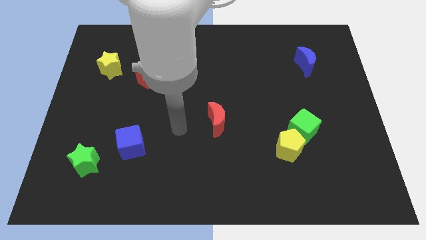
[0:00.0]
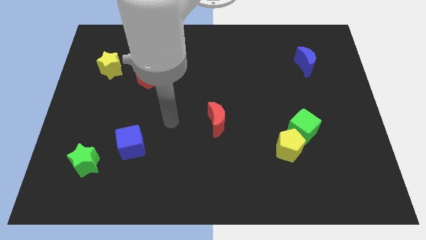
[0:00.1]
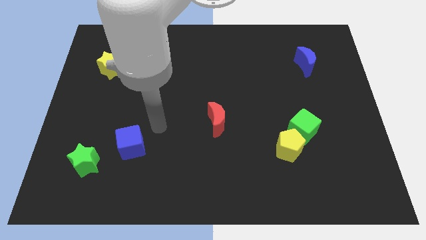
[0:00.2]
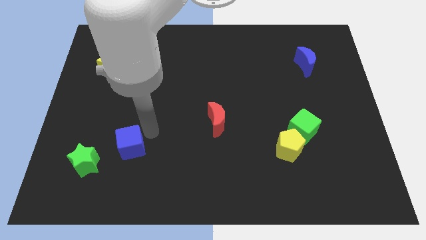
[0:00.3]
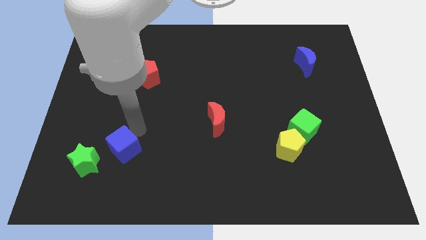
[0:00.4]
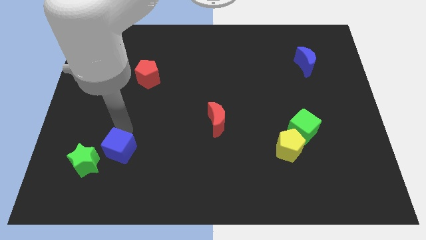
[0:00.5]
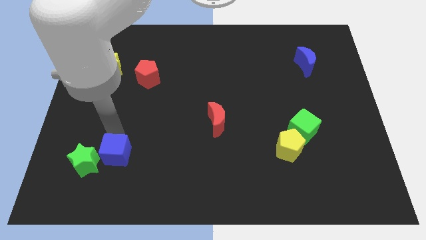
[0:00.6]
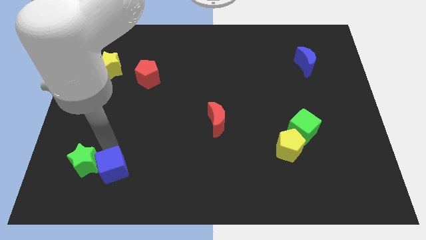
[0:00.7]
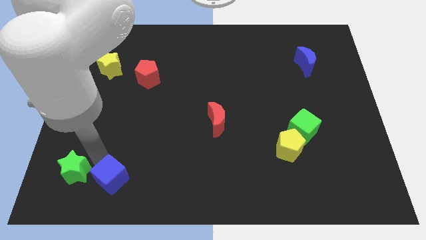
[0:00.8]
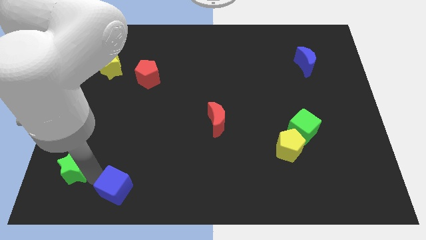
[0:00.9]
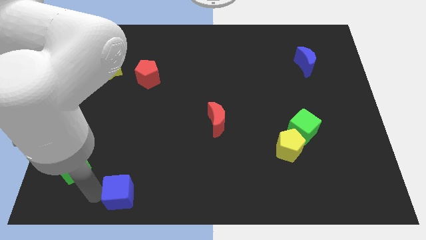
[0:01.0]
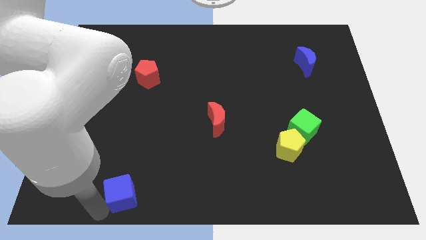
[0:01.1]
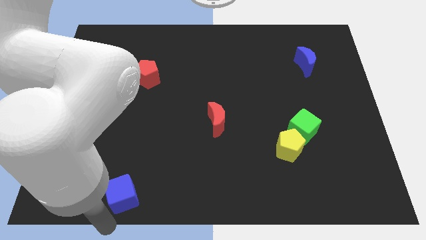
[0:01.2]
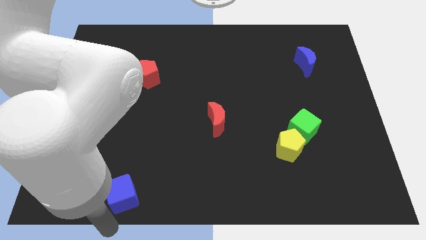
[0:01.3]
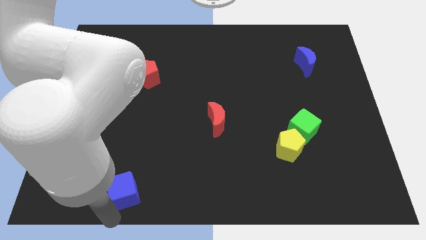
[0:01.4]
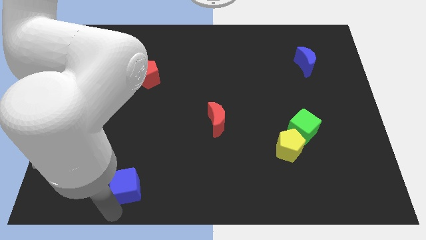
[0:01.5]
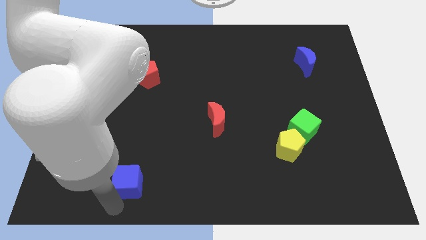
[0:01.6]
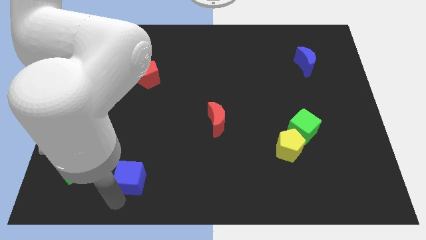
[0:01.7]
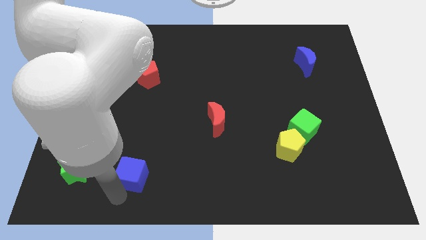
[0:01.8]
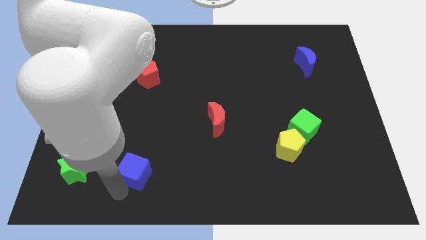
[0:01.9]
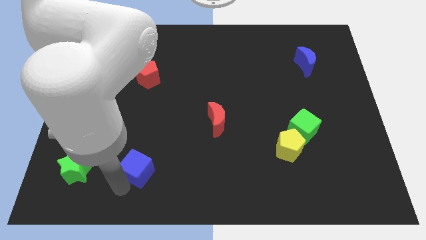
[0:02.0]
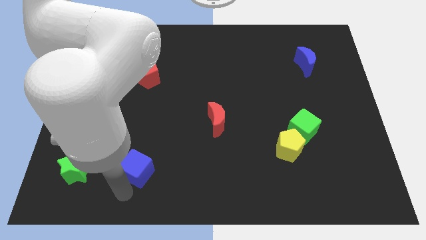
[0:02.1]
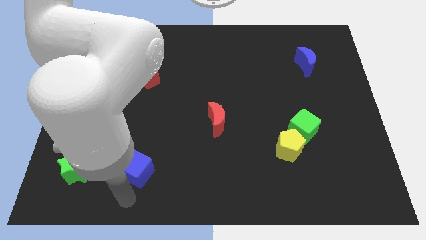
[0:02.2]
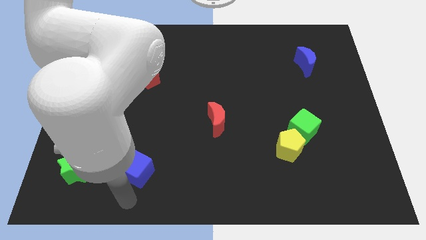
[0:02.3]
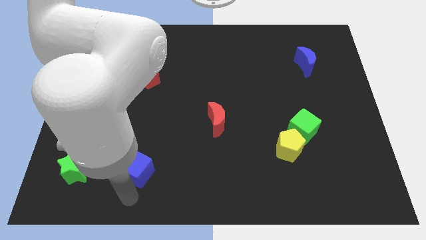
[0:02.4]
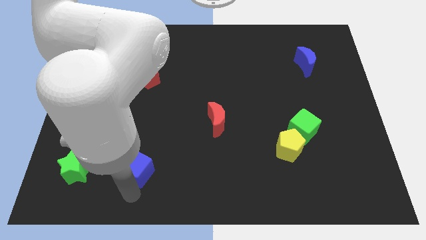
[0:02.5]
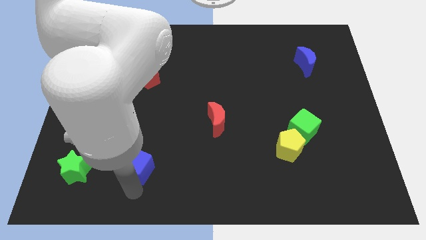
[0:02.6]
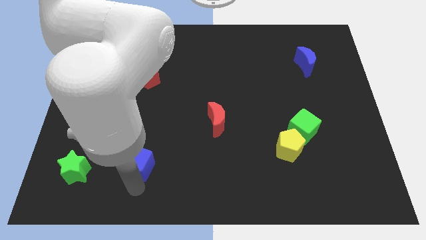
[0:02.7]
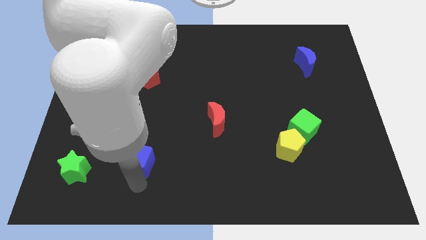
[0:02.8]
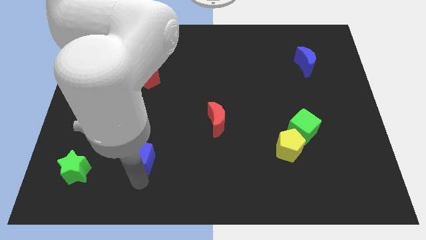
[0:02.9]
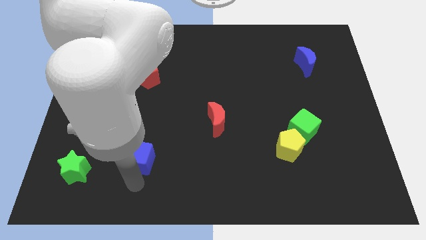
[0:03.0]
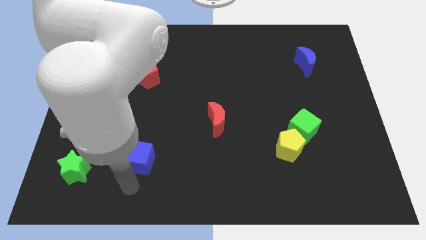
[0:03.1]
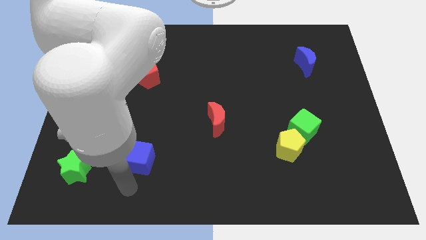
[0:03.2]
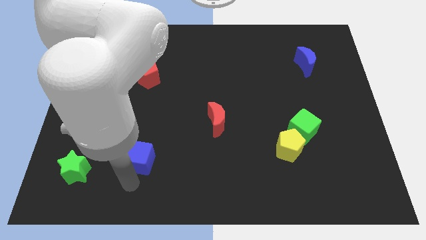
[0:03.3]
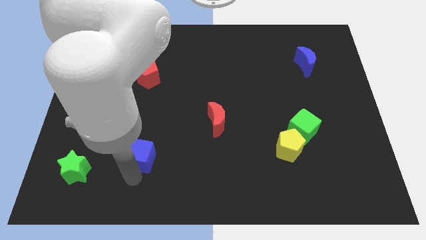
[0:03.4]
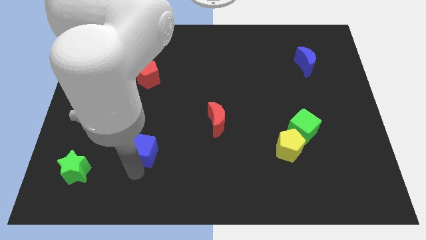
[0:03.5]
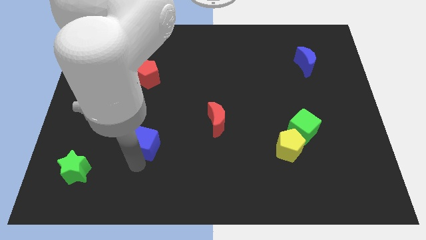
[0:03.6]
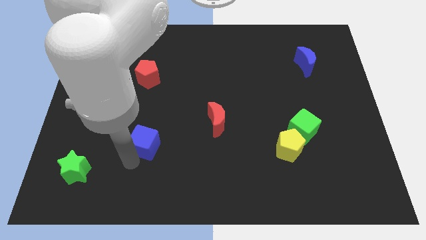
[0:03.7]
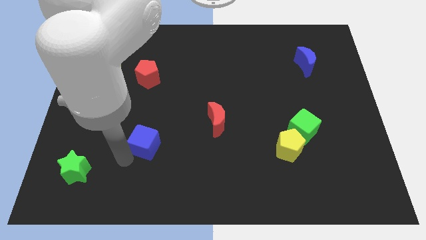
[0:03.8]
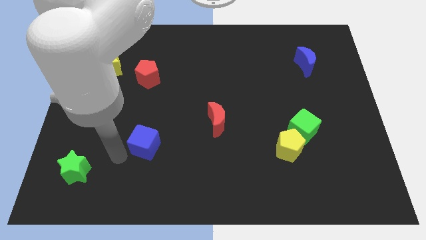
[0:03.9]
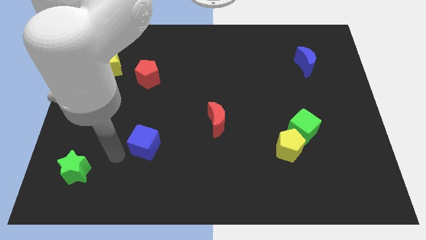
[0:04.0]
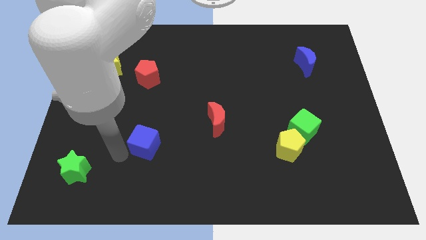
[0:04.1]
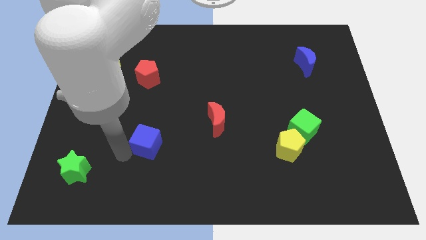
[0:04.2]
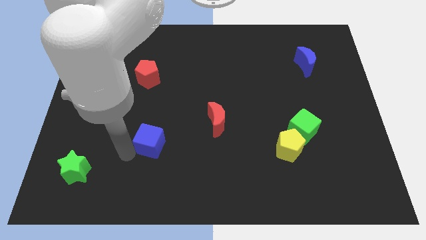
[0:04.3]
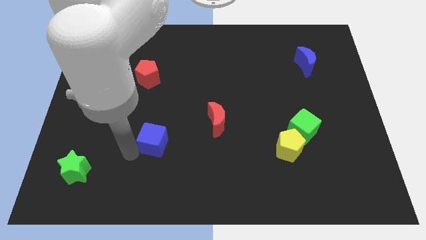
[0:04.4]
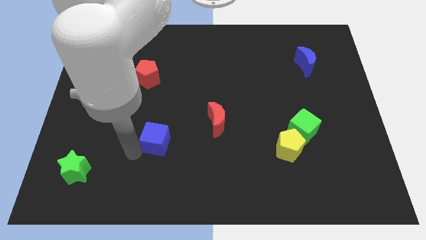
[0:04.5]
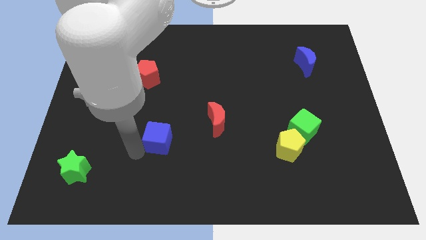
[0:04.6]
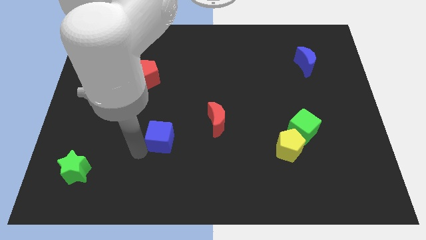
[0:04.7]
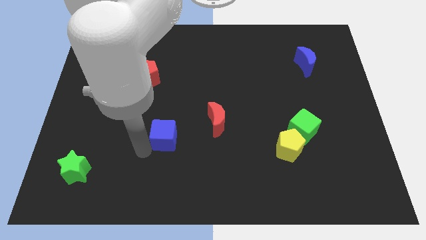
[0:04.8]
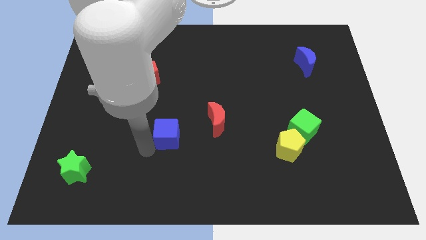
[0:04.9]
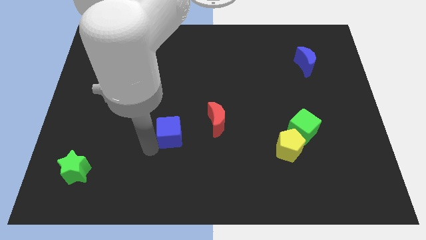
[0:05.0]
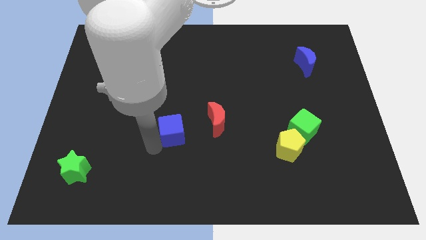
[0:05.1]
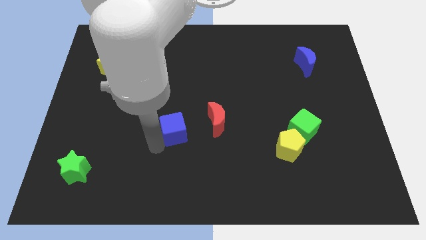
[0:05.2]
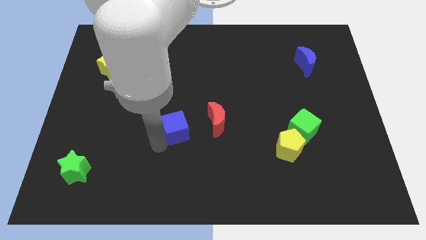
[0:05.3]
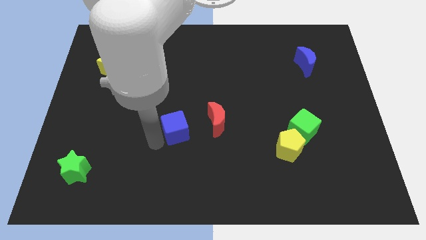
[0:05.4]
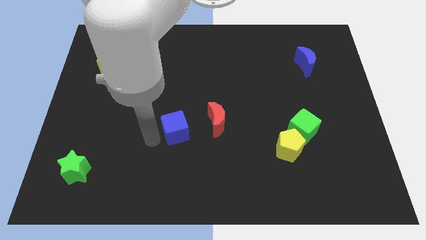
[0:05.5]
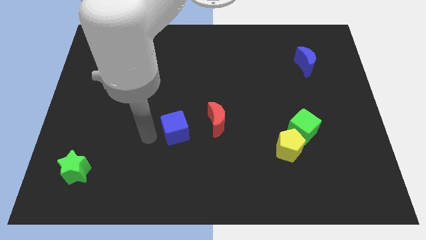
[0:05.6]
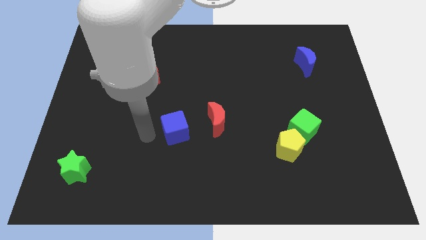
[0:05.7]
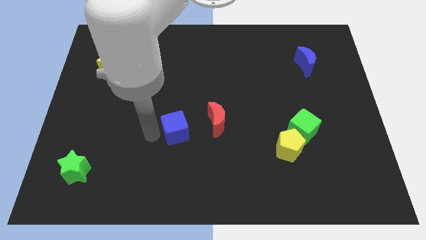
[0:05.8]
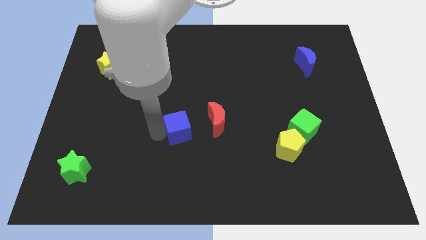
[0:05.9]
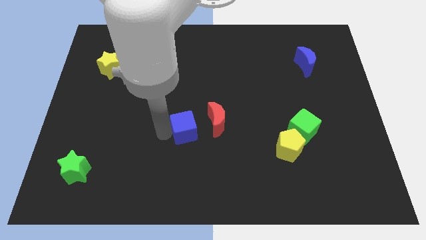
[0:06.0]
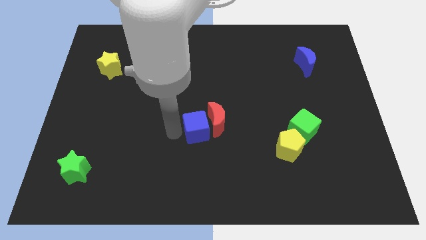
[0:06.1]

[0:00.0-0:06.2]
put the blue cube to the red moon

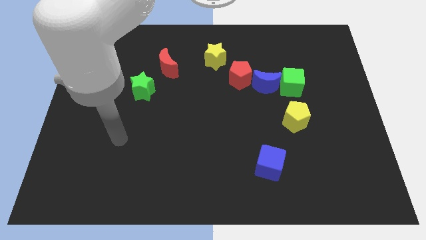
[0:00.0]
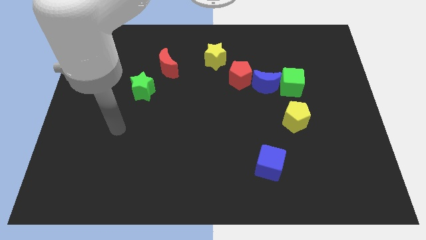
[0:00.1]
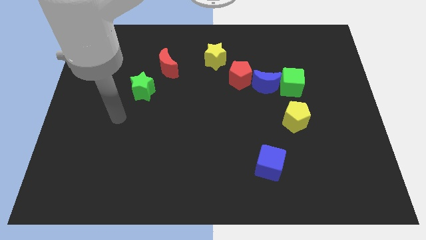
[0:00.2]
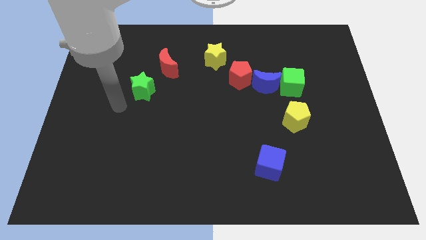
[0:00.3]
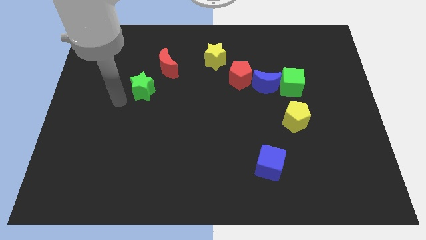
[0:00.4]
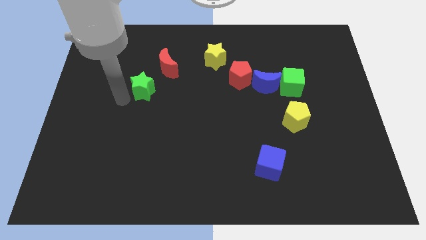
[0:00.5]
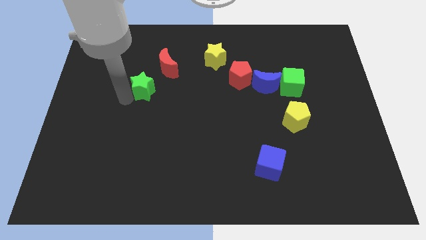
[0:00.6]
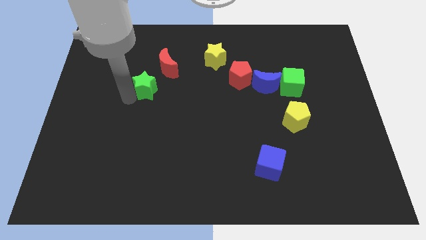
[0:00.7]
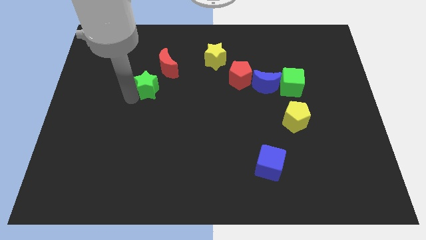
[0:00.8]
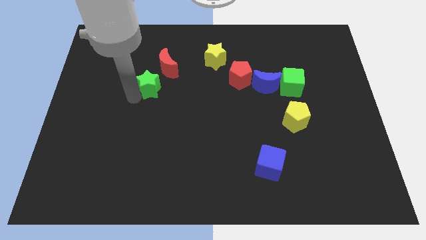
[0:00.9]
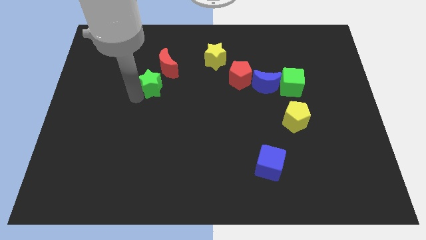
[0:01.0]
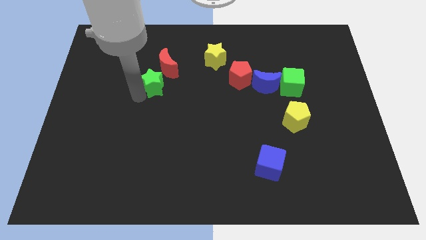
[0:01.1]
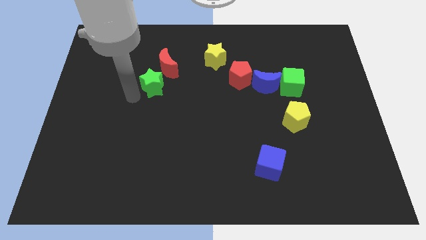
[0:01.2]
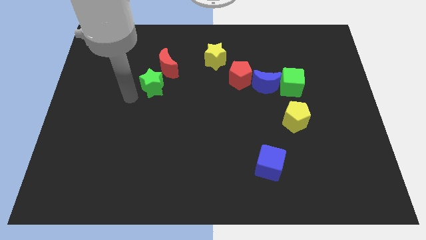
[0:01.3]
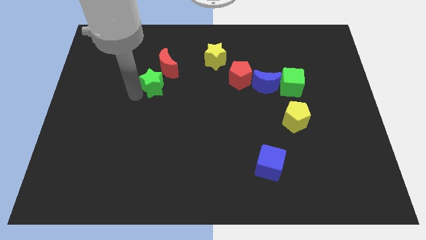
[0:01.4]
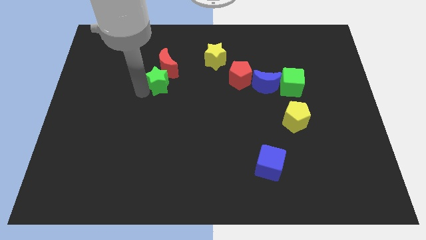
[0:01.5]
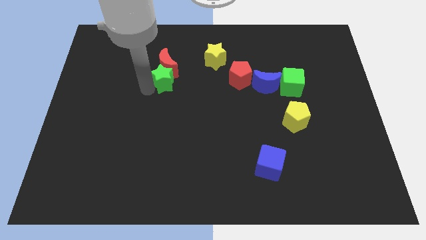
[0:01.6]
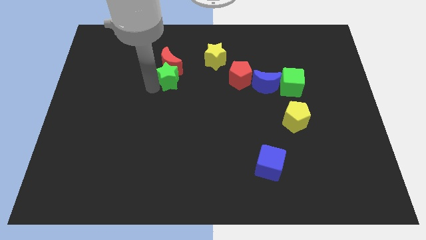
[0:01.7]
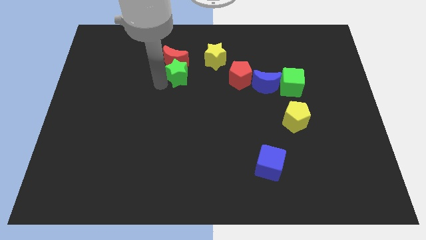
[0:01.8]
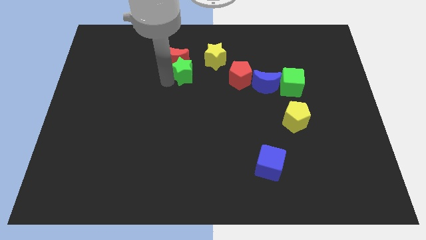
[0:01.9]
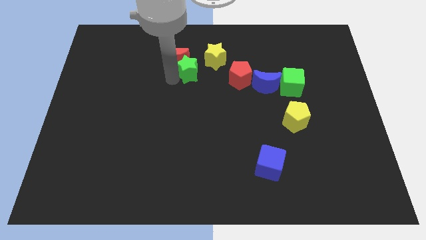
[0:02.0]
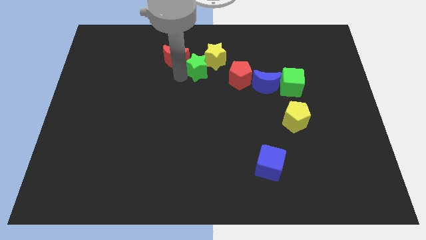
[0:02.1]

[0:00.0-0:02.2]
push the green star towards the yellow star
